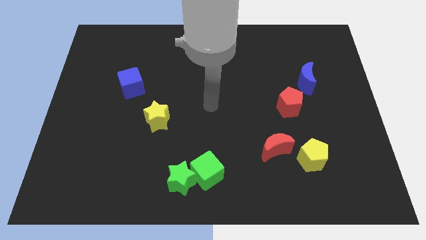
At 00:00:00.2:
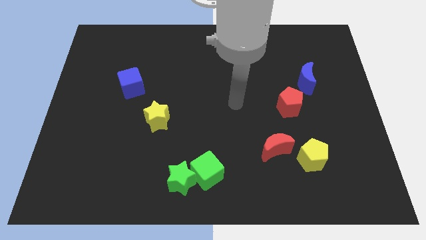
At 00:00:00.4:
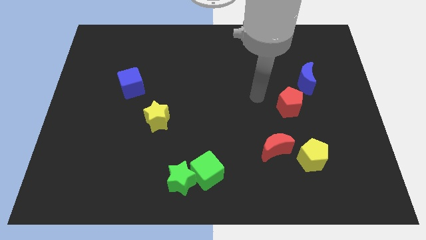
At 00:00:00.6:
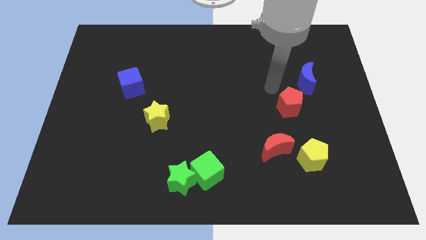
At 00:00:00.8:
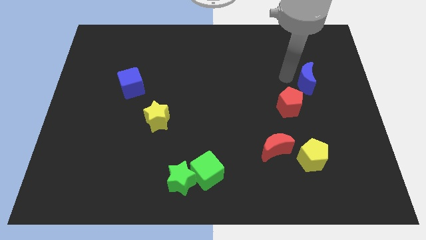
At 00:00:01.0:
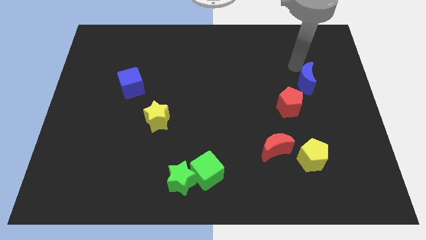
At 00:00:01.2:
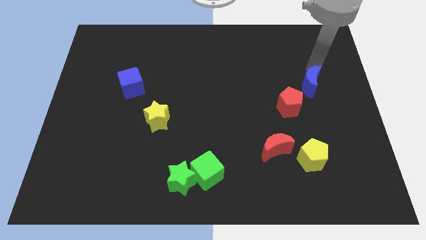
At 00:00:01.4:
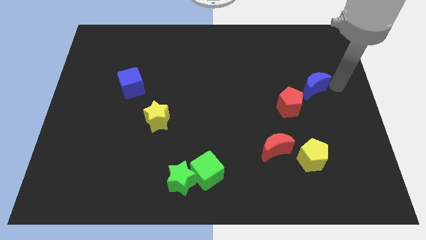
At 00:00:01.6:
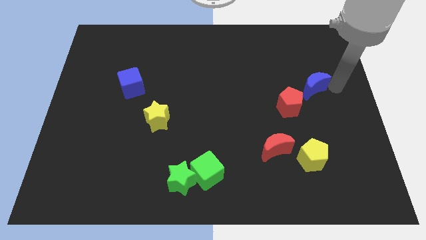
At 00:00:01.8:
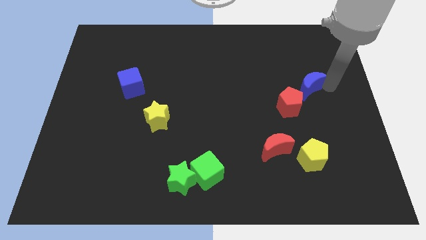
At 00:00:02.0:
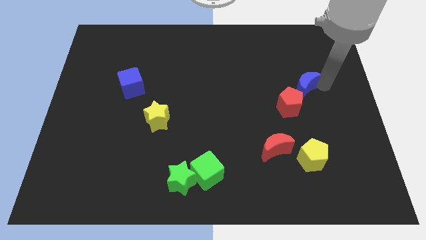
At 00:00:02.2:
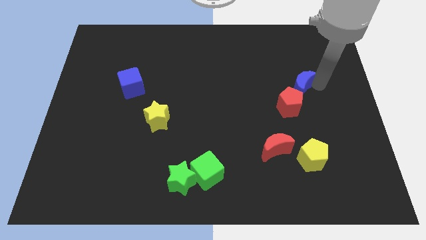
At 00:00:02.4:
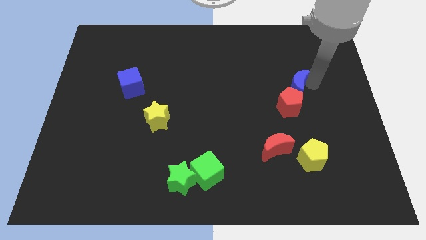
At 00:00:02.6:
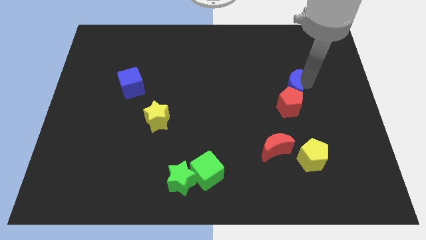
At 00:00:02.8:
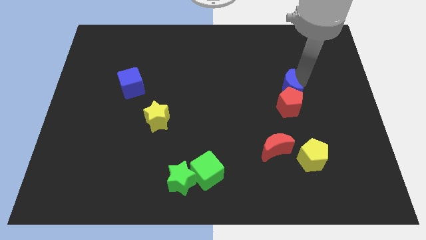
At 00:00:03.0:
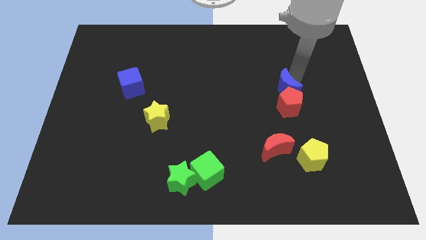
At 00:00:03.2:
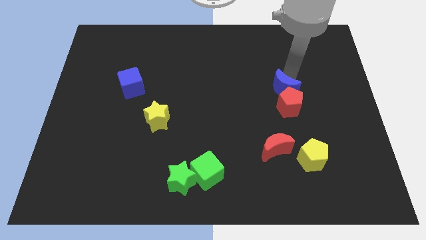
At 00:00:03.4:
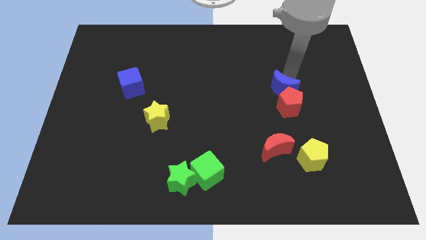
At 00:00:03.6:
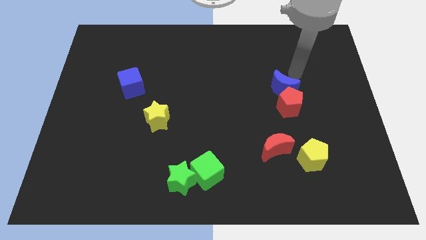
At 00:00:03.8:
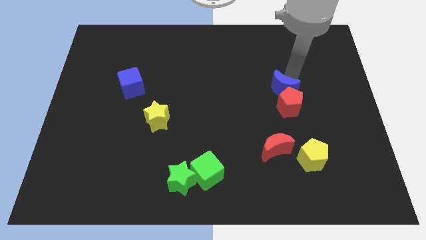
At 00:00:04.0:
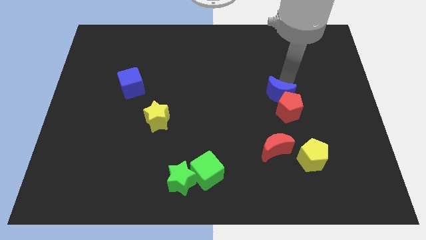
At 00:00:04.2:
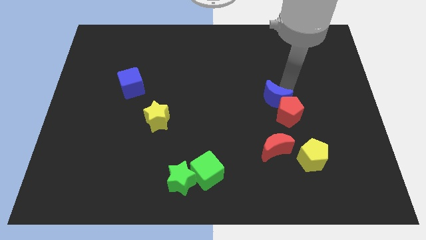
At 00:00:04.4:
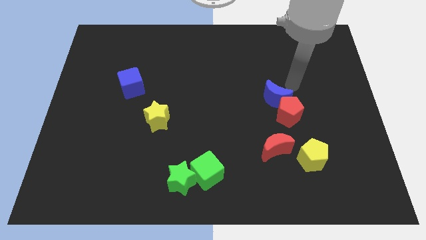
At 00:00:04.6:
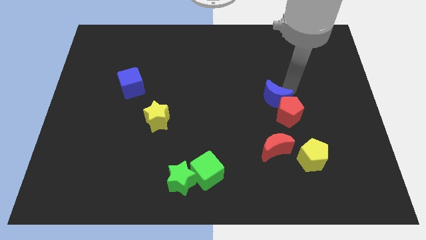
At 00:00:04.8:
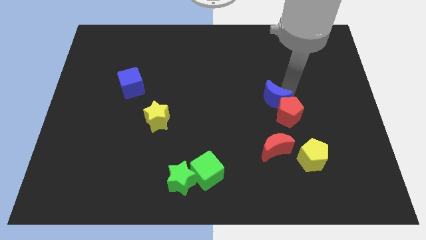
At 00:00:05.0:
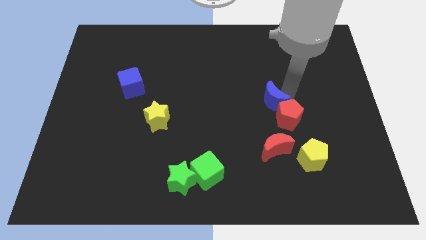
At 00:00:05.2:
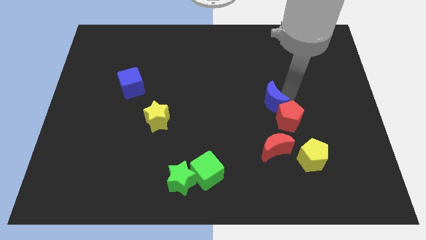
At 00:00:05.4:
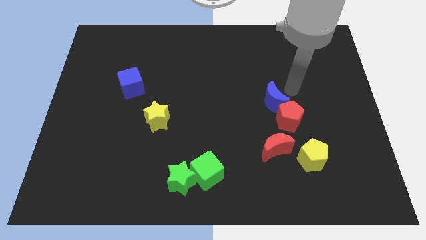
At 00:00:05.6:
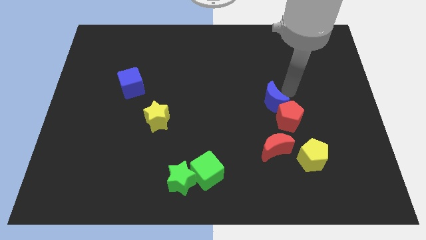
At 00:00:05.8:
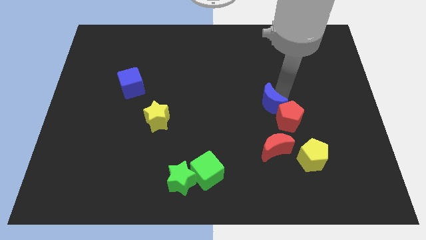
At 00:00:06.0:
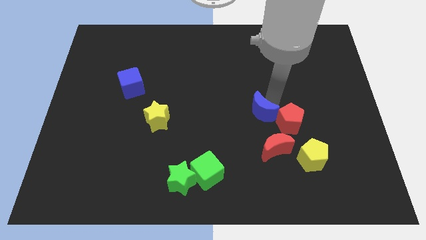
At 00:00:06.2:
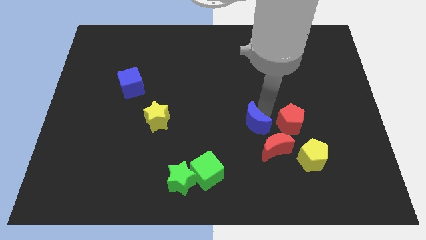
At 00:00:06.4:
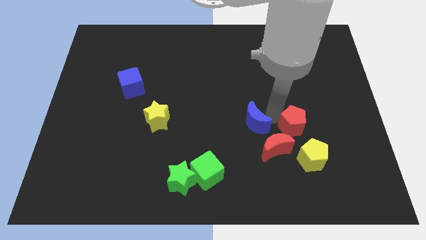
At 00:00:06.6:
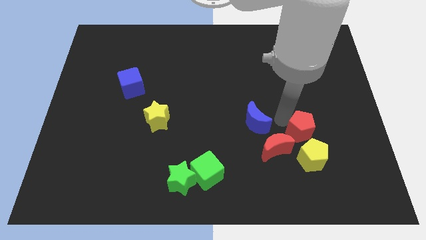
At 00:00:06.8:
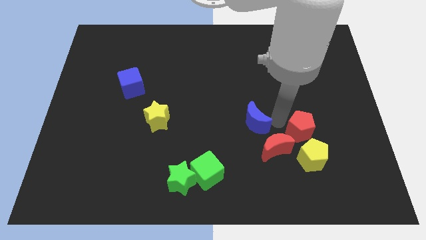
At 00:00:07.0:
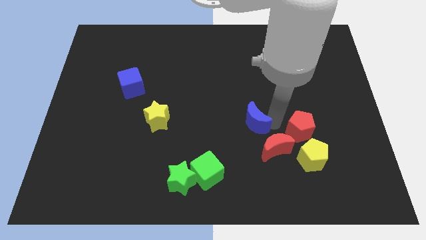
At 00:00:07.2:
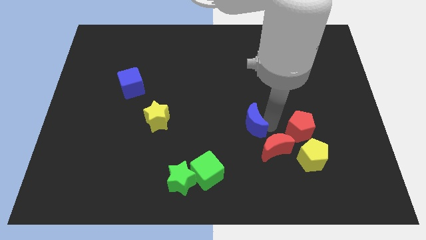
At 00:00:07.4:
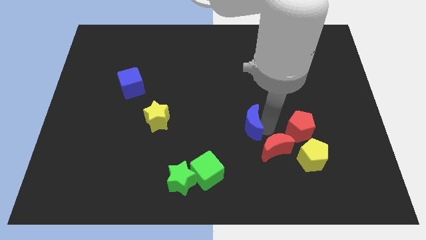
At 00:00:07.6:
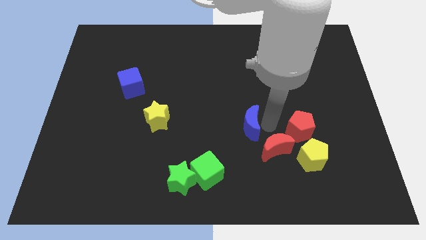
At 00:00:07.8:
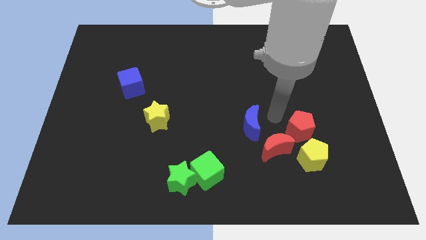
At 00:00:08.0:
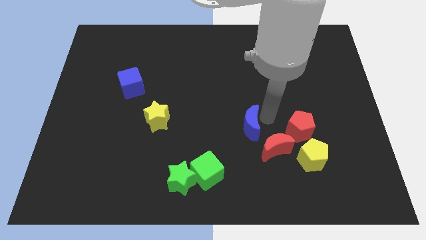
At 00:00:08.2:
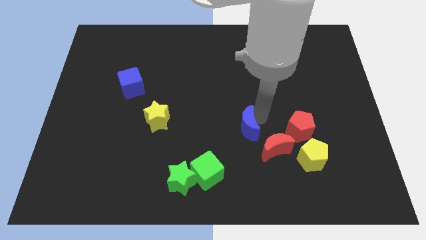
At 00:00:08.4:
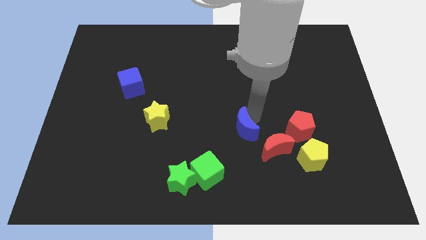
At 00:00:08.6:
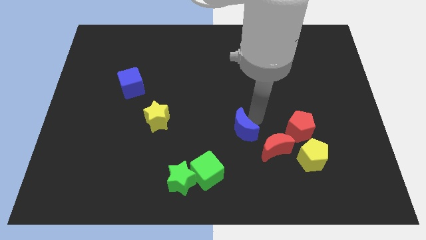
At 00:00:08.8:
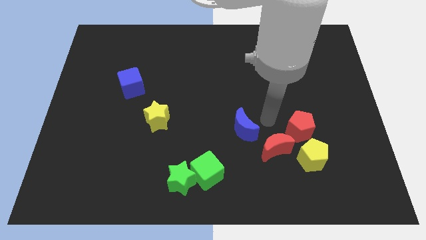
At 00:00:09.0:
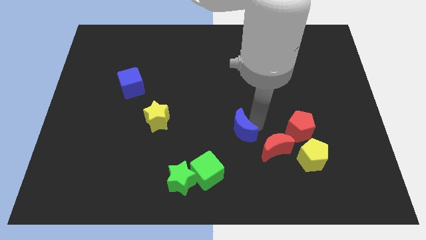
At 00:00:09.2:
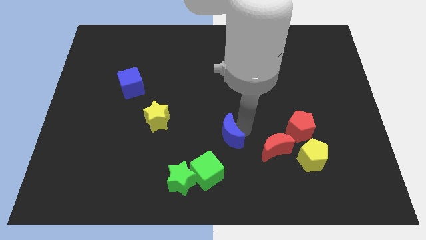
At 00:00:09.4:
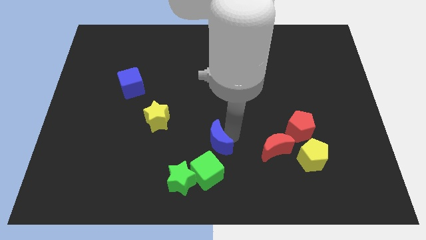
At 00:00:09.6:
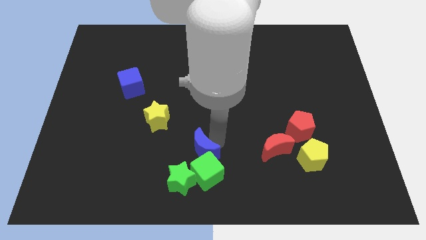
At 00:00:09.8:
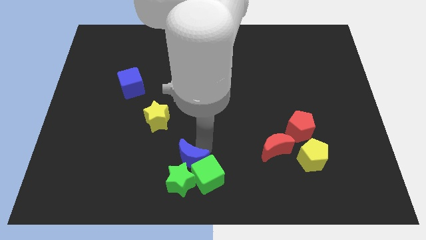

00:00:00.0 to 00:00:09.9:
slide the blue moon towards the green star

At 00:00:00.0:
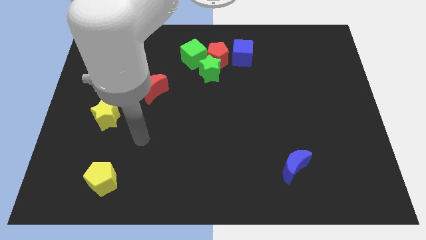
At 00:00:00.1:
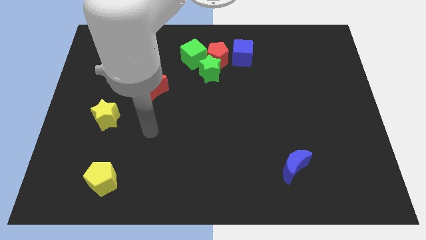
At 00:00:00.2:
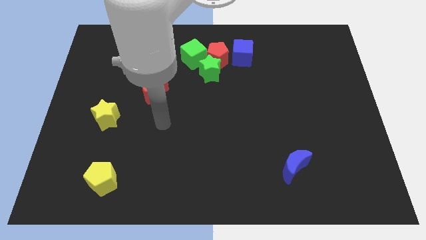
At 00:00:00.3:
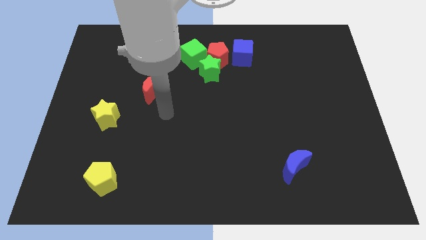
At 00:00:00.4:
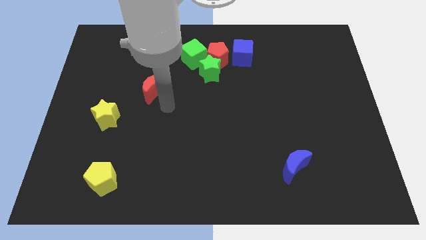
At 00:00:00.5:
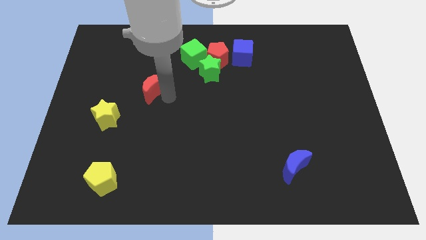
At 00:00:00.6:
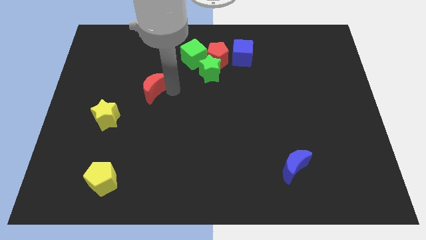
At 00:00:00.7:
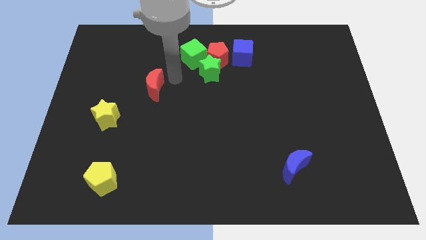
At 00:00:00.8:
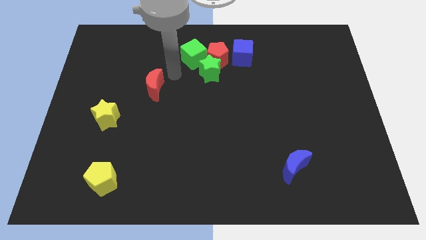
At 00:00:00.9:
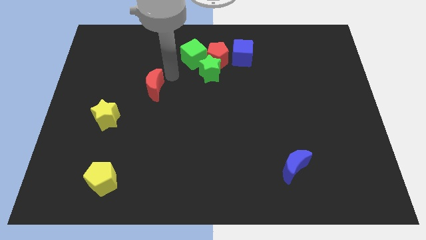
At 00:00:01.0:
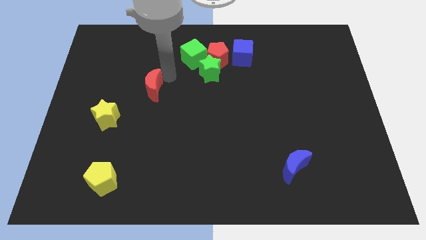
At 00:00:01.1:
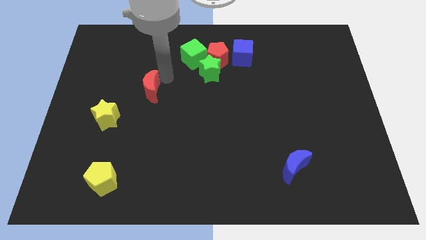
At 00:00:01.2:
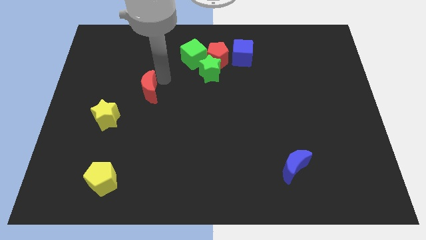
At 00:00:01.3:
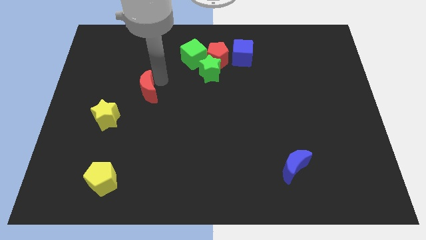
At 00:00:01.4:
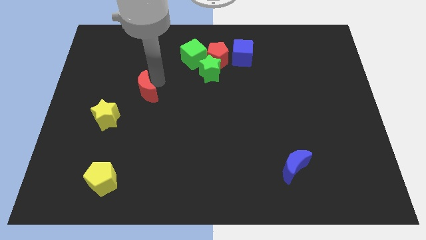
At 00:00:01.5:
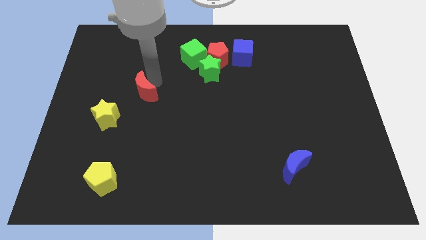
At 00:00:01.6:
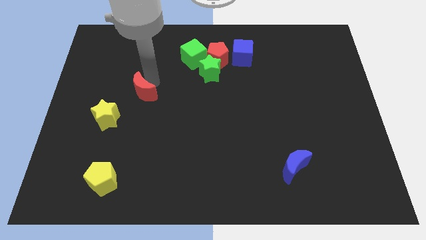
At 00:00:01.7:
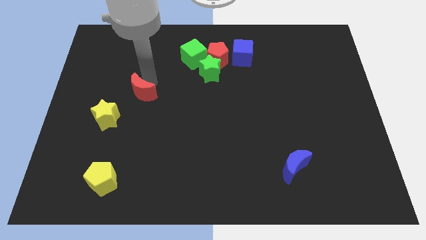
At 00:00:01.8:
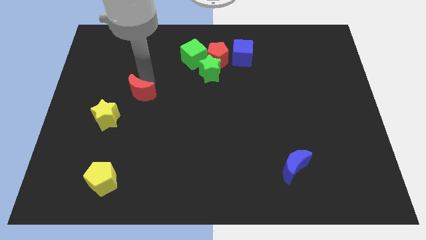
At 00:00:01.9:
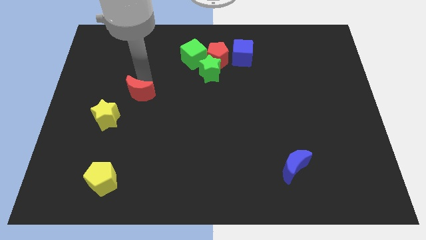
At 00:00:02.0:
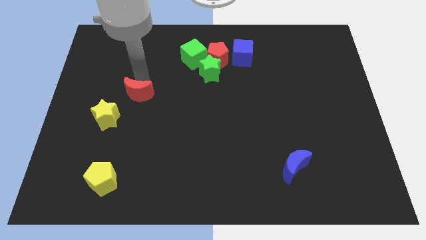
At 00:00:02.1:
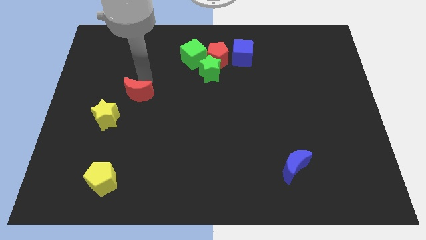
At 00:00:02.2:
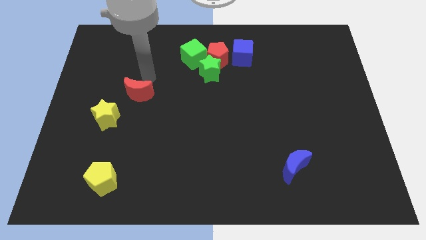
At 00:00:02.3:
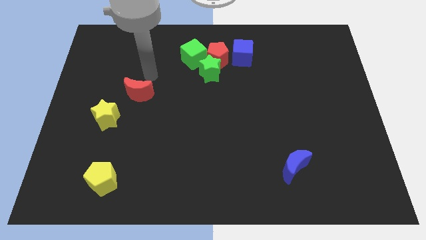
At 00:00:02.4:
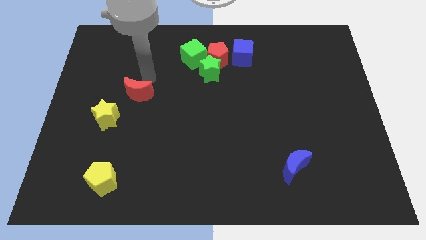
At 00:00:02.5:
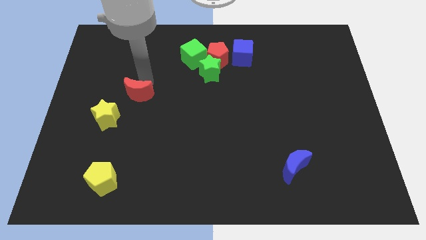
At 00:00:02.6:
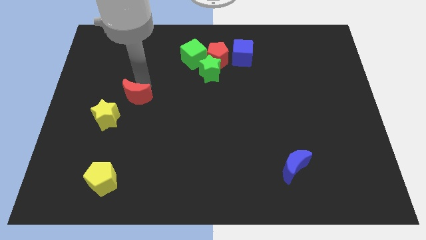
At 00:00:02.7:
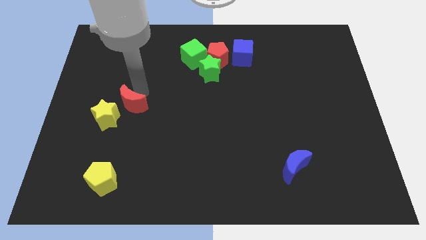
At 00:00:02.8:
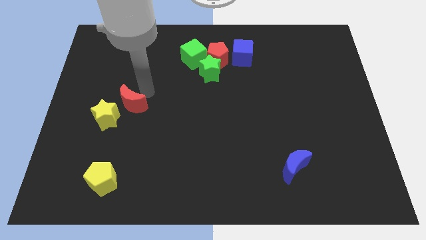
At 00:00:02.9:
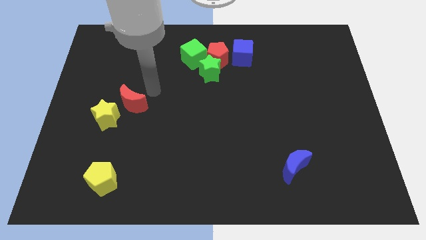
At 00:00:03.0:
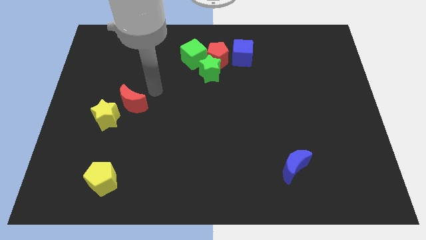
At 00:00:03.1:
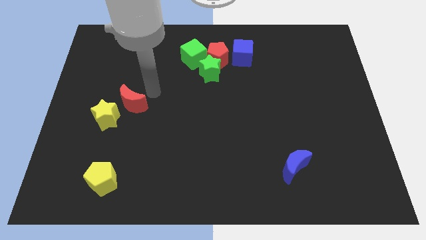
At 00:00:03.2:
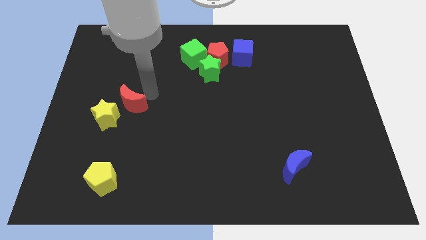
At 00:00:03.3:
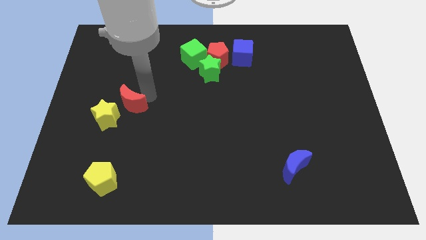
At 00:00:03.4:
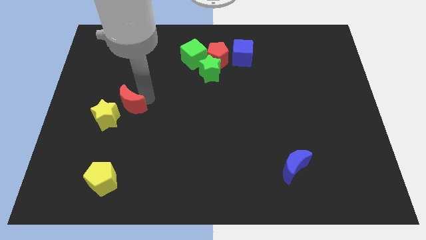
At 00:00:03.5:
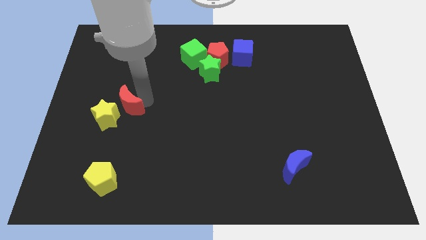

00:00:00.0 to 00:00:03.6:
push the red moon towards the yellow star
